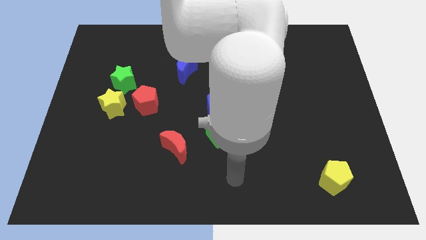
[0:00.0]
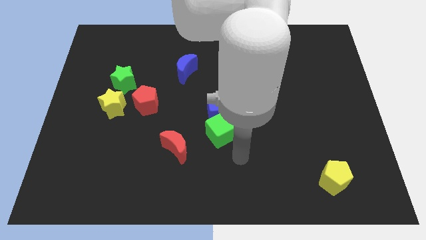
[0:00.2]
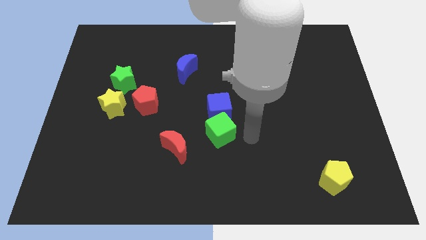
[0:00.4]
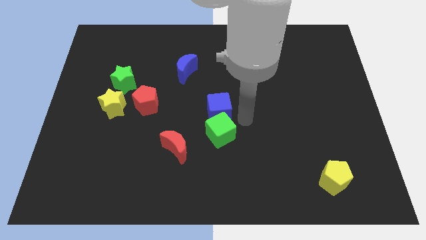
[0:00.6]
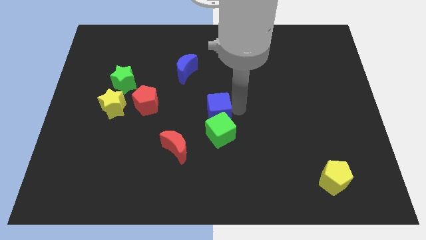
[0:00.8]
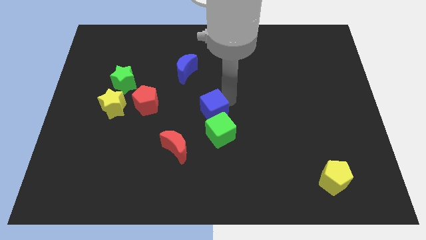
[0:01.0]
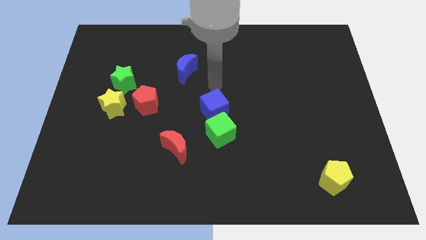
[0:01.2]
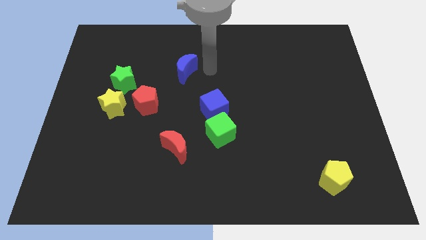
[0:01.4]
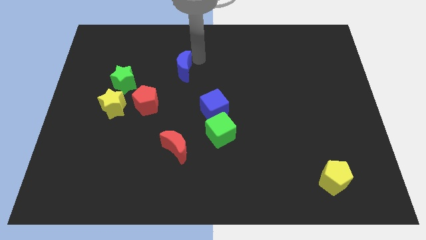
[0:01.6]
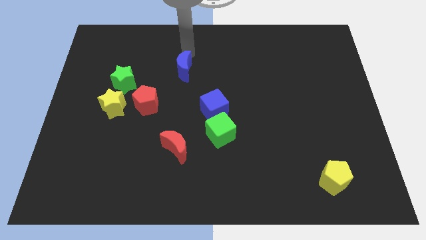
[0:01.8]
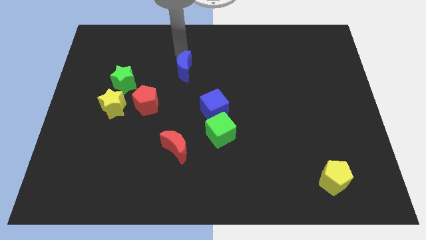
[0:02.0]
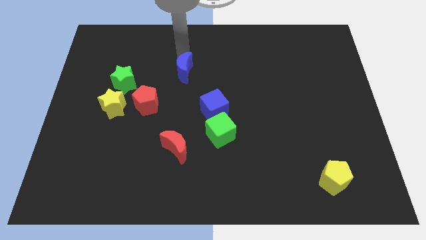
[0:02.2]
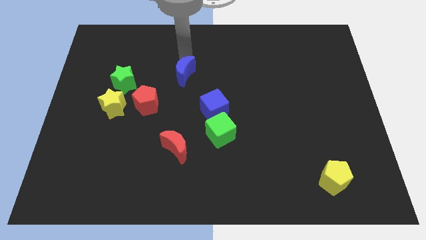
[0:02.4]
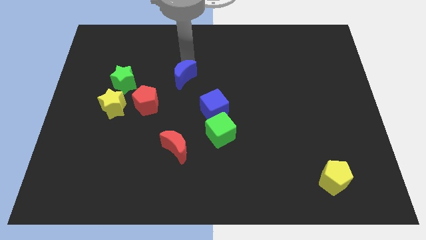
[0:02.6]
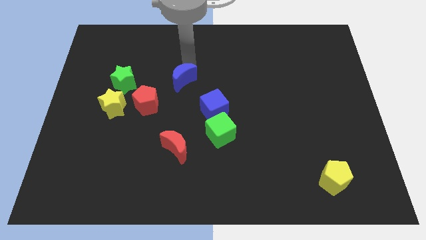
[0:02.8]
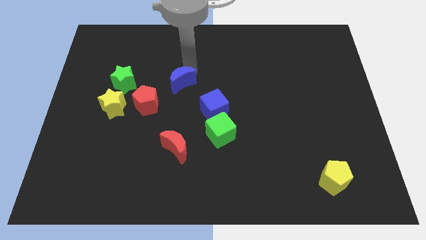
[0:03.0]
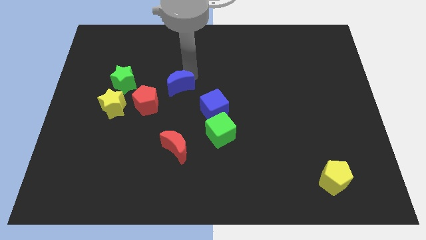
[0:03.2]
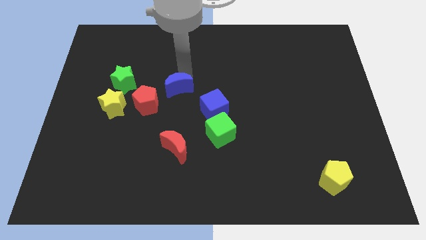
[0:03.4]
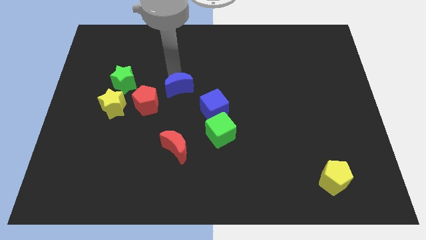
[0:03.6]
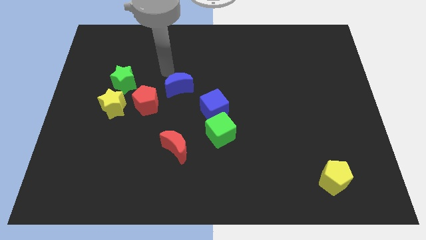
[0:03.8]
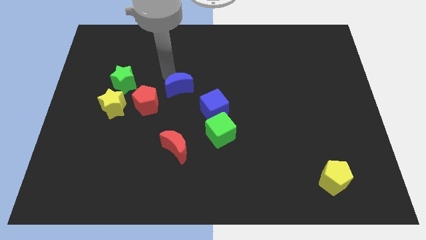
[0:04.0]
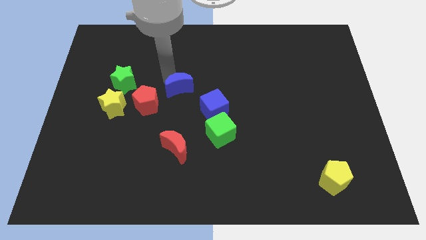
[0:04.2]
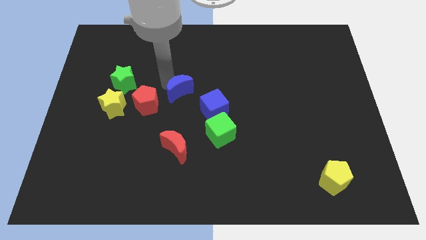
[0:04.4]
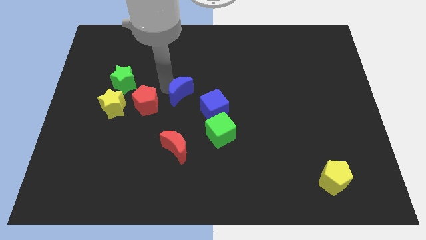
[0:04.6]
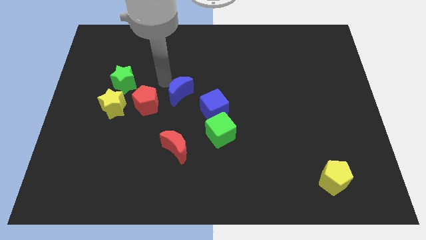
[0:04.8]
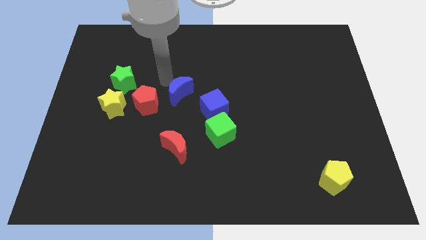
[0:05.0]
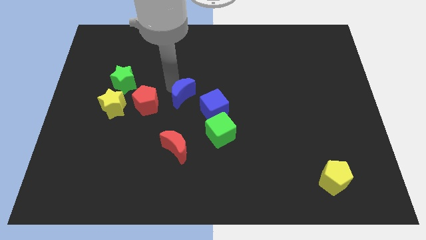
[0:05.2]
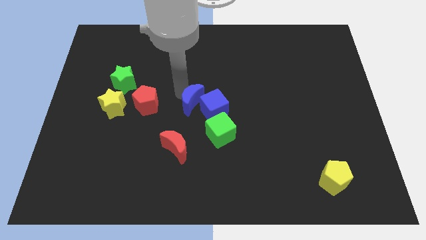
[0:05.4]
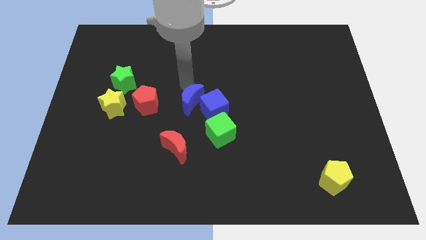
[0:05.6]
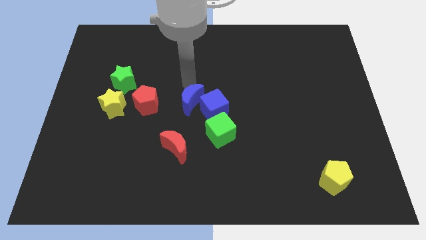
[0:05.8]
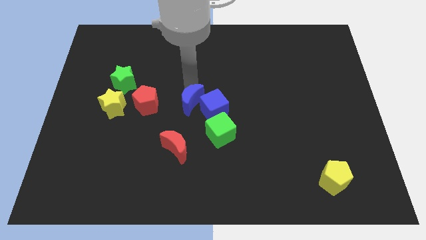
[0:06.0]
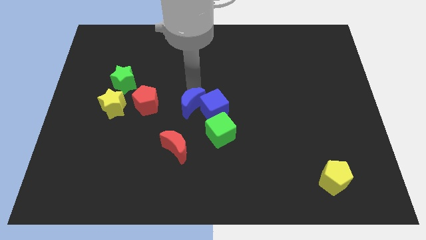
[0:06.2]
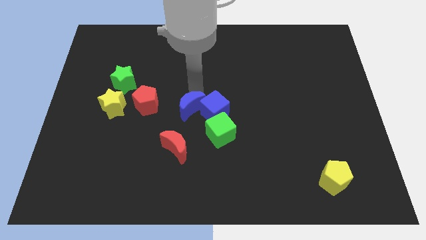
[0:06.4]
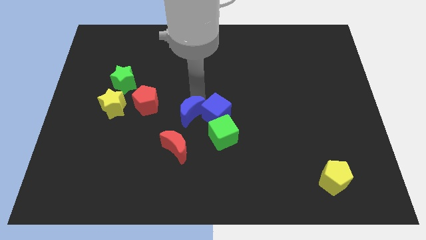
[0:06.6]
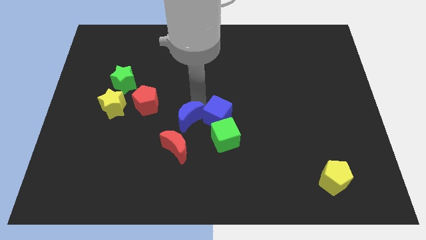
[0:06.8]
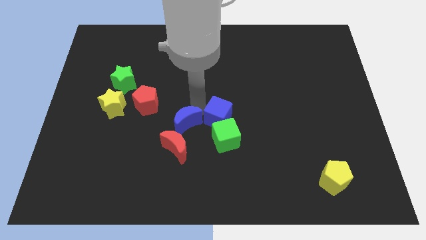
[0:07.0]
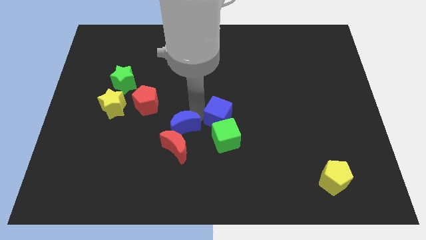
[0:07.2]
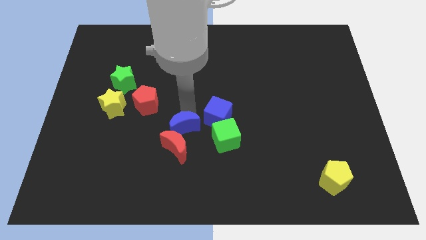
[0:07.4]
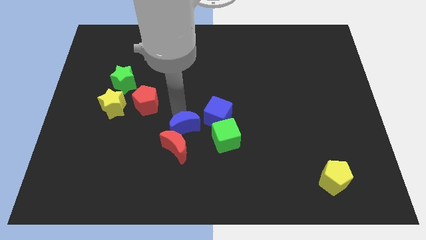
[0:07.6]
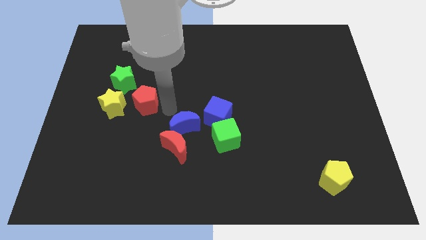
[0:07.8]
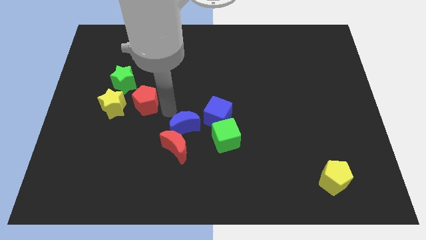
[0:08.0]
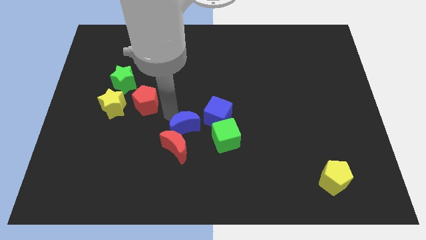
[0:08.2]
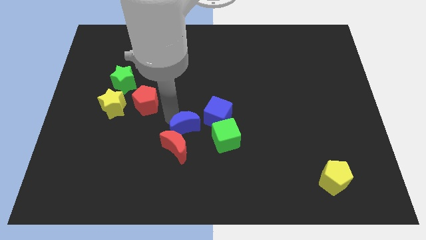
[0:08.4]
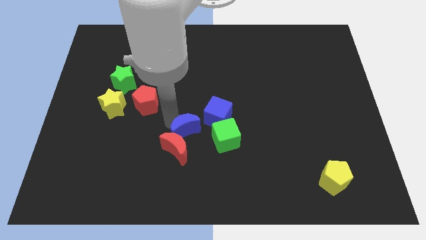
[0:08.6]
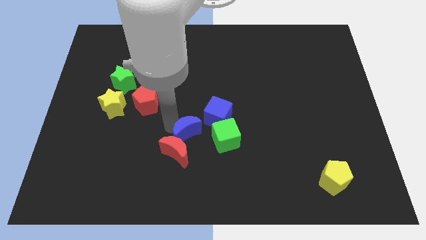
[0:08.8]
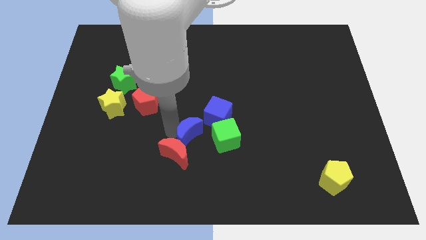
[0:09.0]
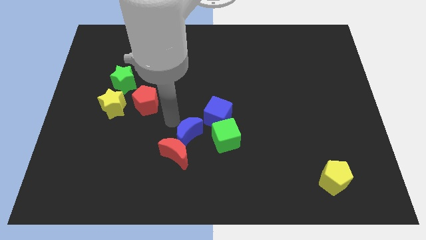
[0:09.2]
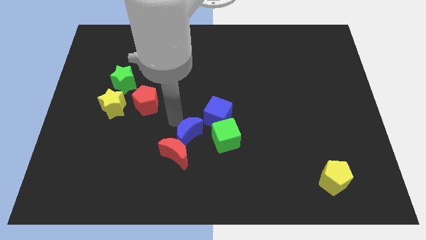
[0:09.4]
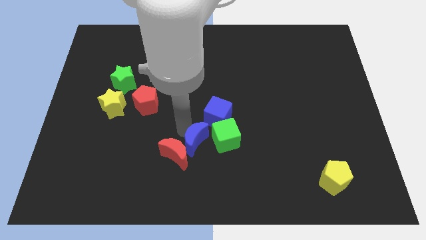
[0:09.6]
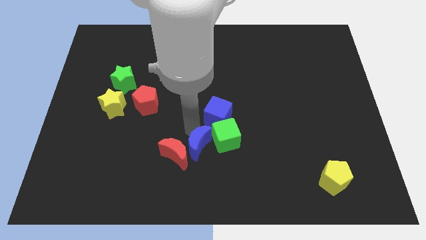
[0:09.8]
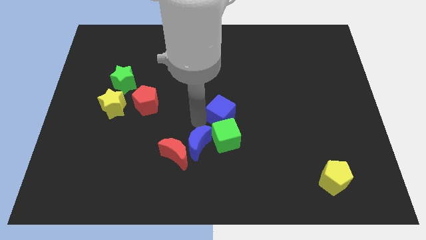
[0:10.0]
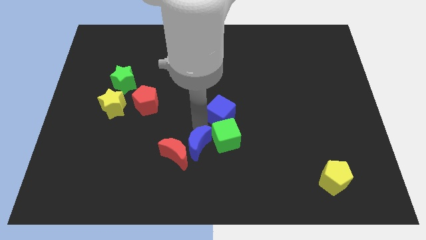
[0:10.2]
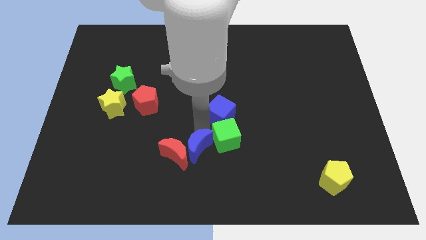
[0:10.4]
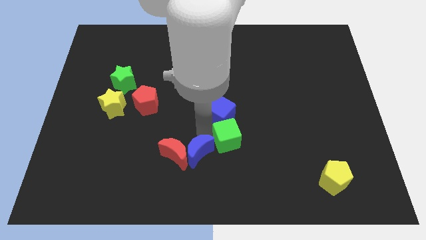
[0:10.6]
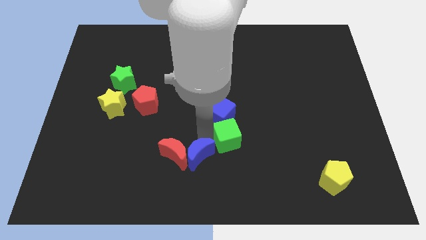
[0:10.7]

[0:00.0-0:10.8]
push the blue moon to the bottom side
